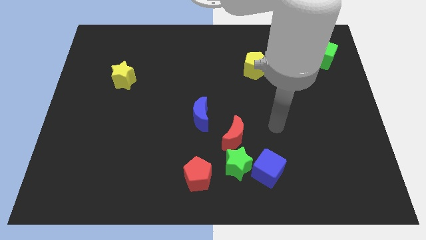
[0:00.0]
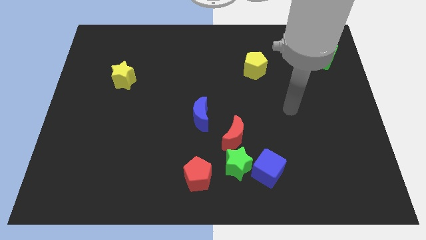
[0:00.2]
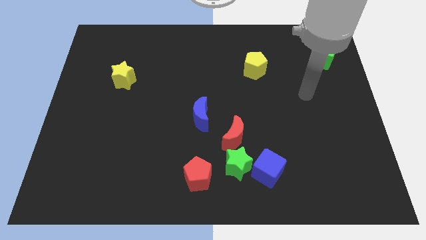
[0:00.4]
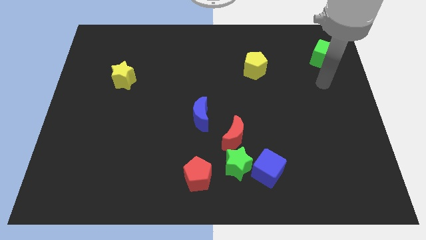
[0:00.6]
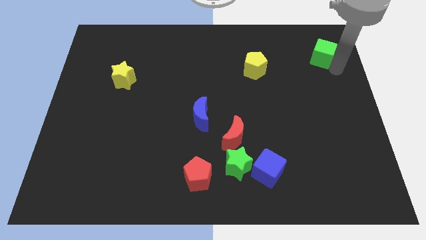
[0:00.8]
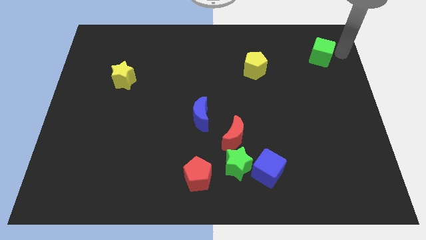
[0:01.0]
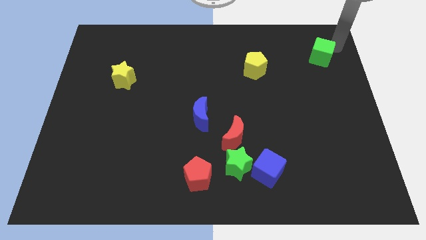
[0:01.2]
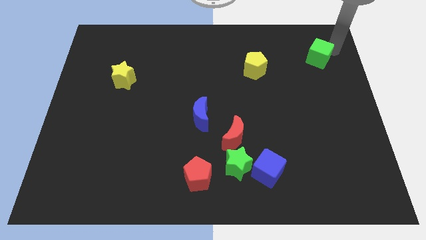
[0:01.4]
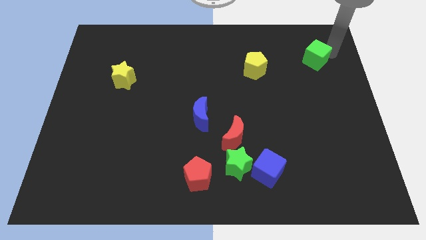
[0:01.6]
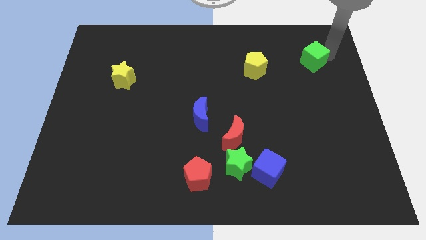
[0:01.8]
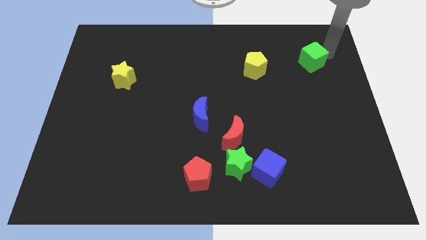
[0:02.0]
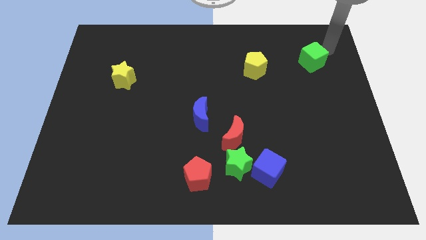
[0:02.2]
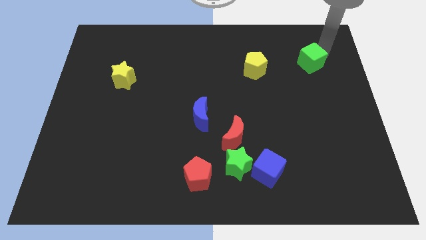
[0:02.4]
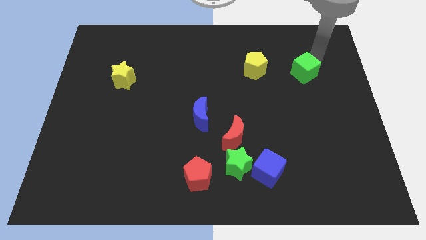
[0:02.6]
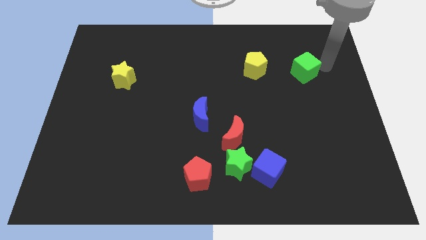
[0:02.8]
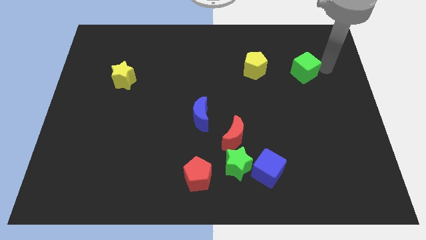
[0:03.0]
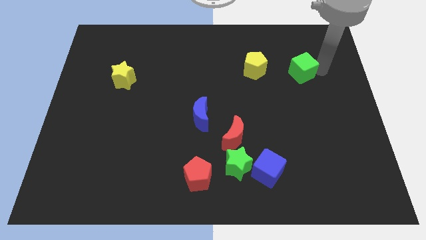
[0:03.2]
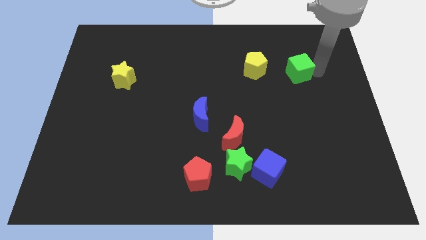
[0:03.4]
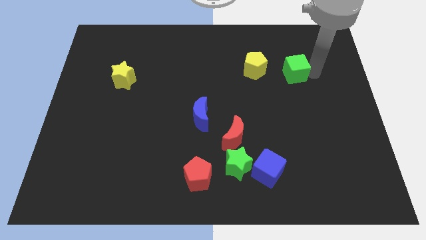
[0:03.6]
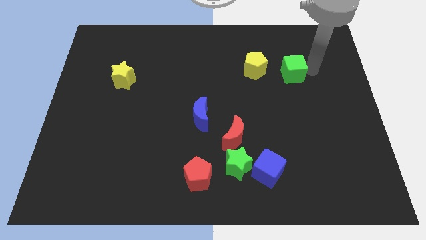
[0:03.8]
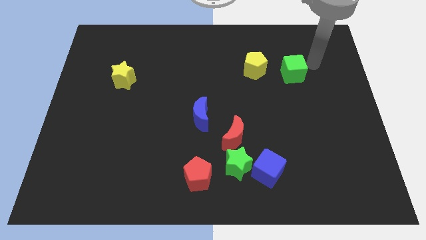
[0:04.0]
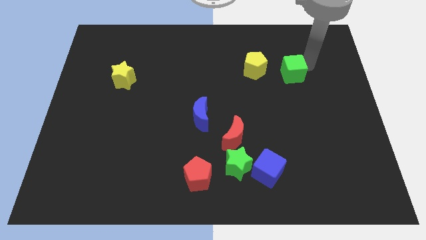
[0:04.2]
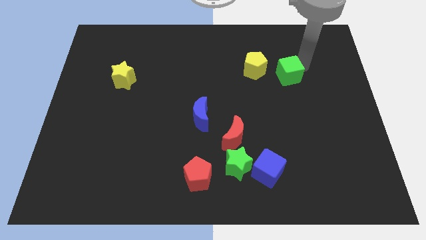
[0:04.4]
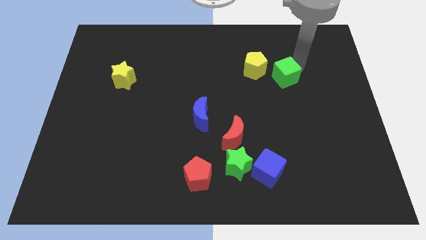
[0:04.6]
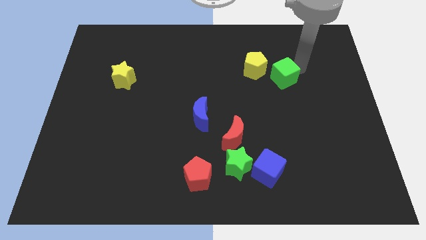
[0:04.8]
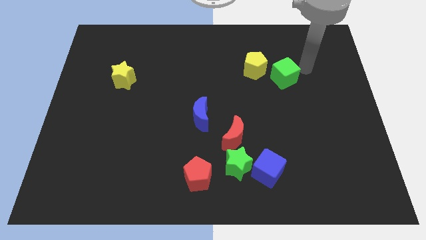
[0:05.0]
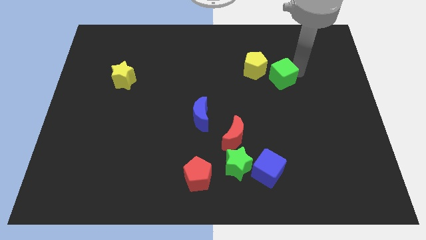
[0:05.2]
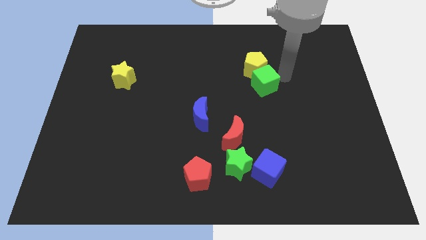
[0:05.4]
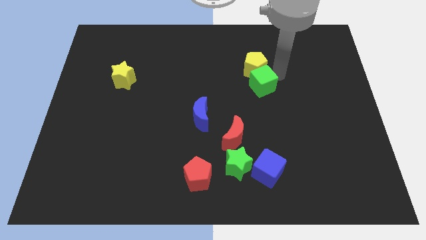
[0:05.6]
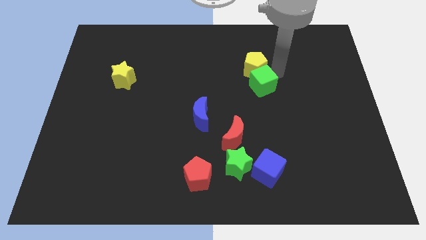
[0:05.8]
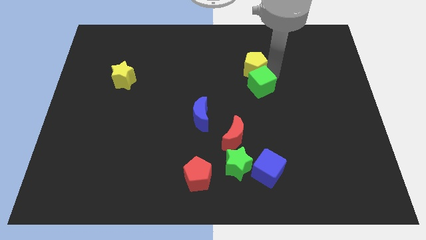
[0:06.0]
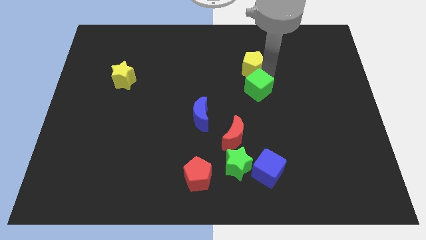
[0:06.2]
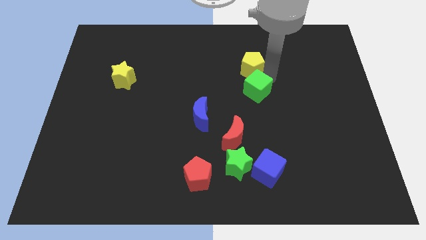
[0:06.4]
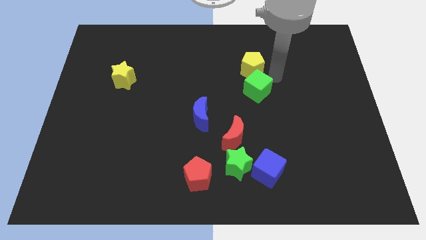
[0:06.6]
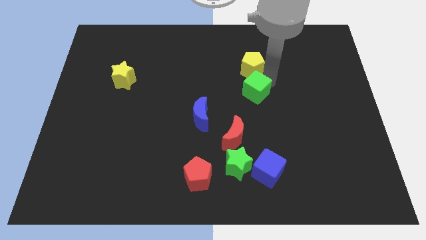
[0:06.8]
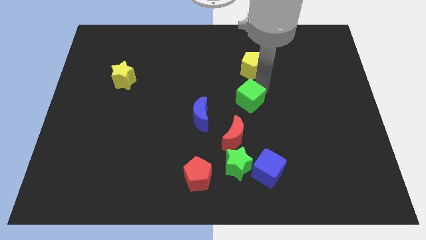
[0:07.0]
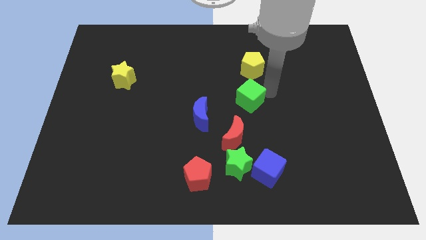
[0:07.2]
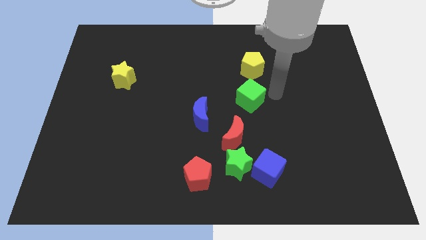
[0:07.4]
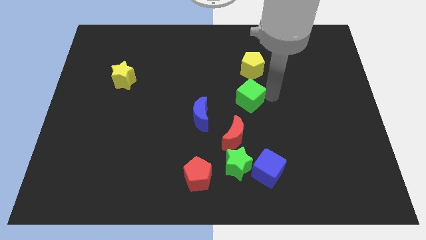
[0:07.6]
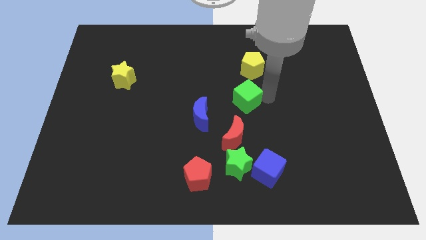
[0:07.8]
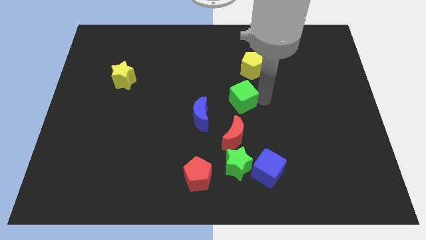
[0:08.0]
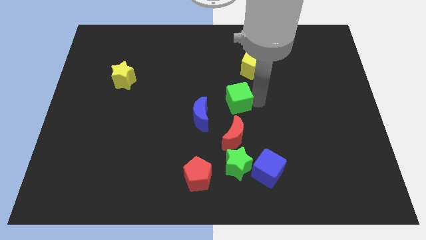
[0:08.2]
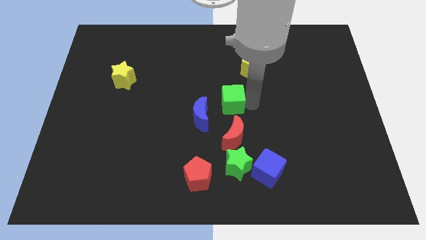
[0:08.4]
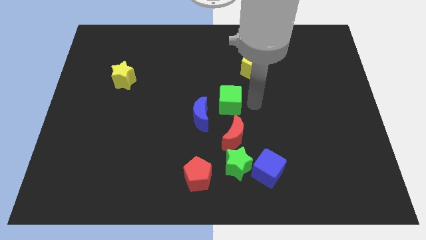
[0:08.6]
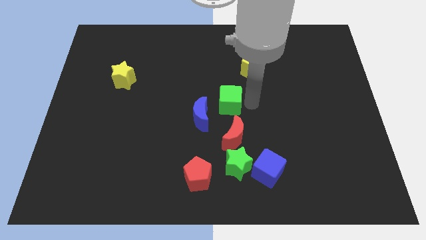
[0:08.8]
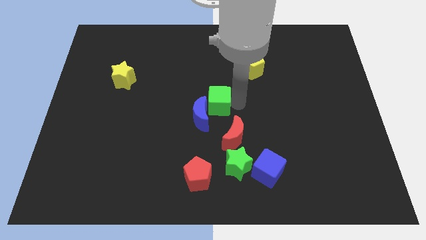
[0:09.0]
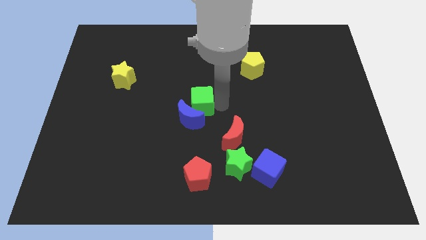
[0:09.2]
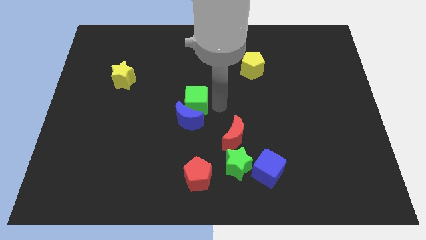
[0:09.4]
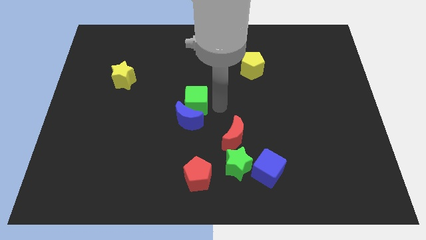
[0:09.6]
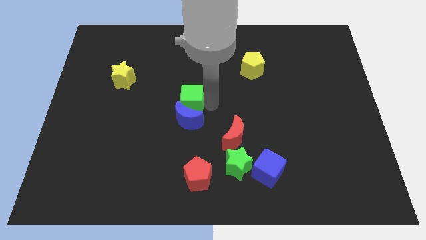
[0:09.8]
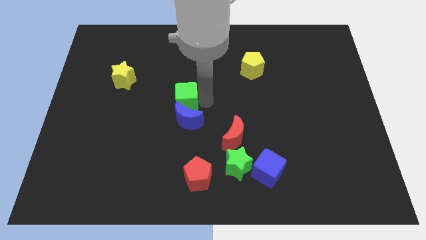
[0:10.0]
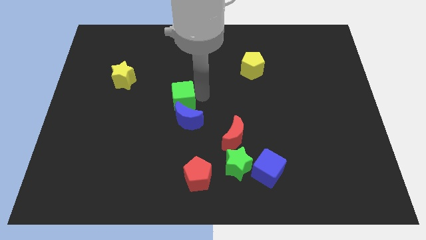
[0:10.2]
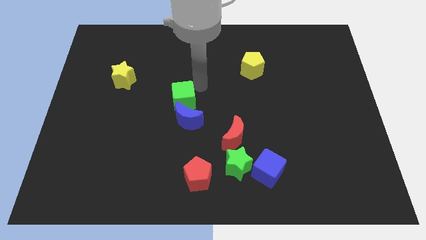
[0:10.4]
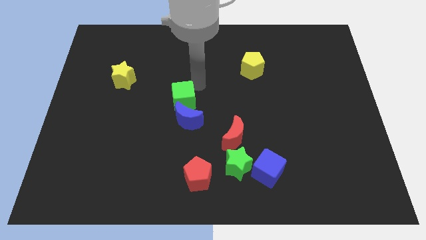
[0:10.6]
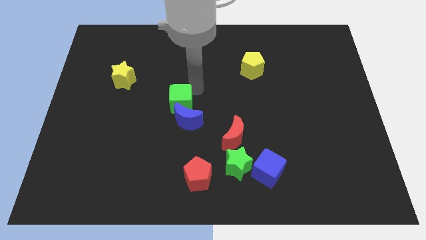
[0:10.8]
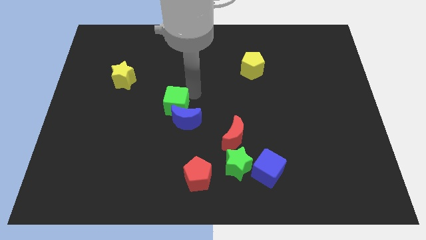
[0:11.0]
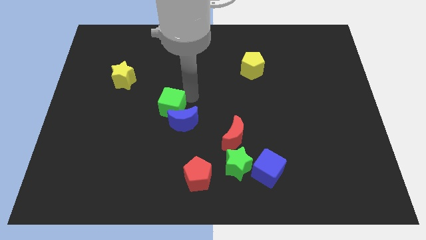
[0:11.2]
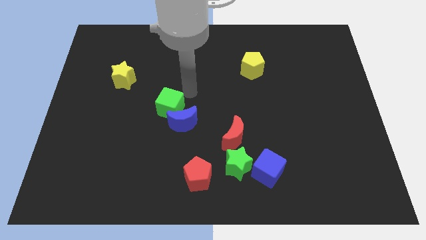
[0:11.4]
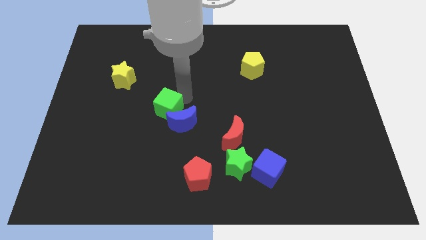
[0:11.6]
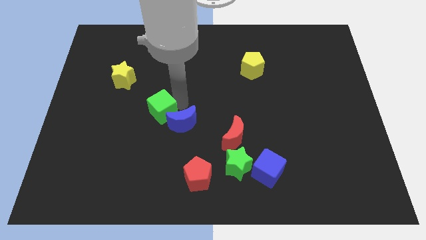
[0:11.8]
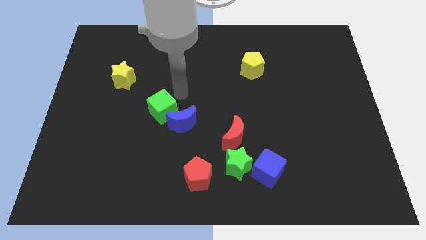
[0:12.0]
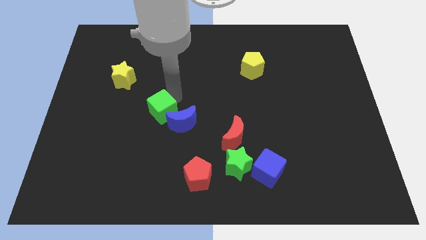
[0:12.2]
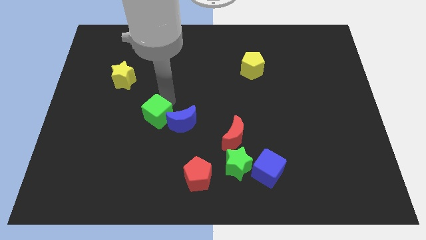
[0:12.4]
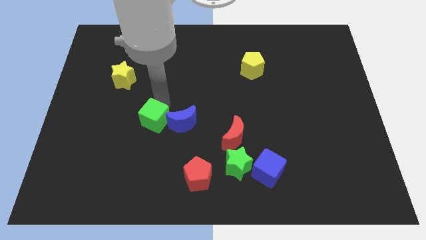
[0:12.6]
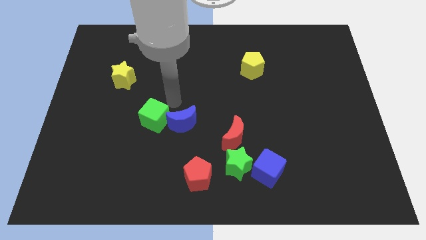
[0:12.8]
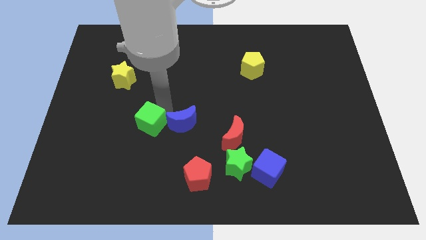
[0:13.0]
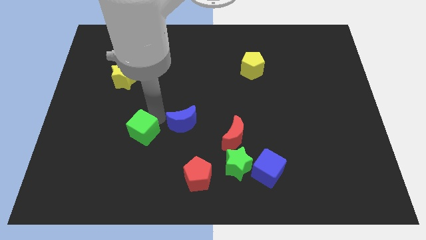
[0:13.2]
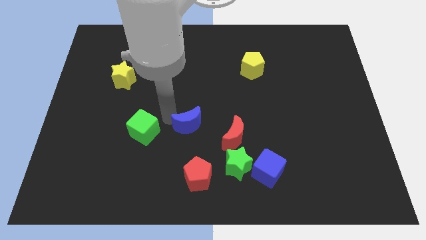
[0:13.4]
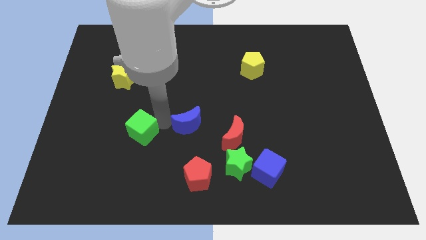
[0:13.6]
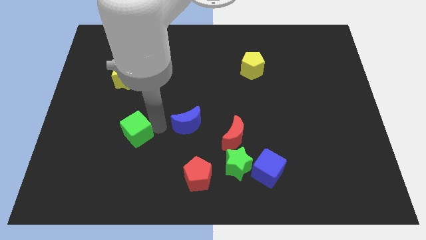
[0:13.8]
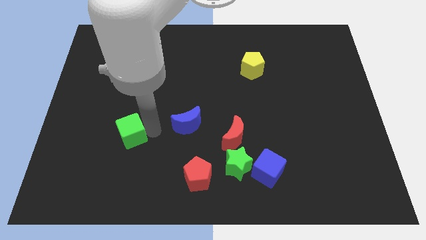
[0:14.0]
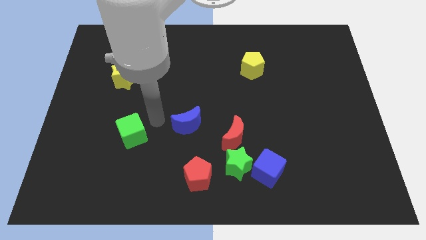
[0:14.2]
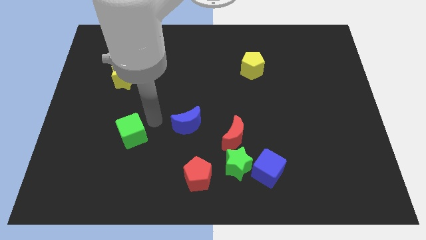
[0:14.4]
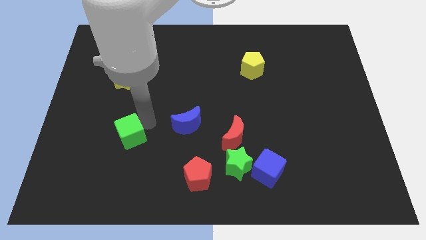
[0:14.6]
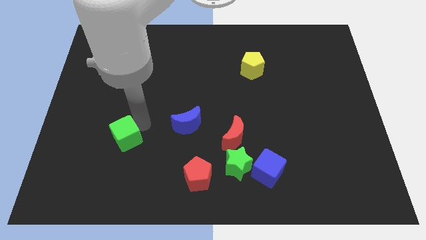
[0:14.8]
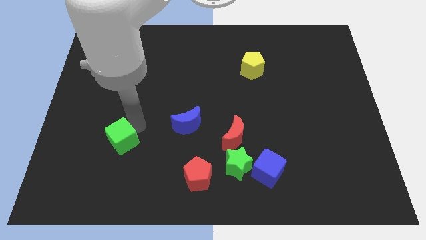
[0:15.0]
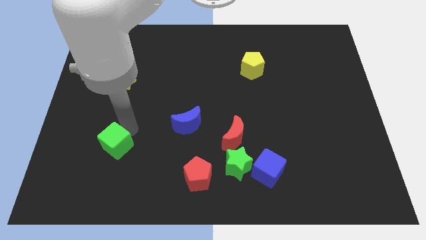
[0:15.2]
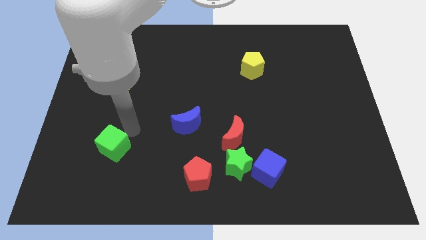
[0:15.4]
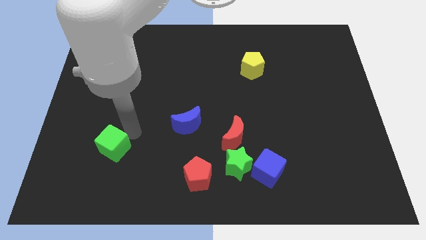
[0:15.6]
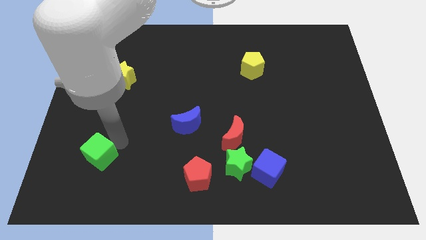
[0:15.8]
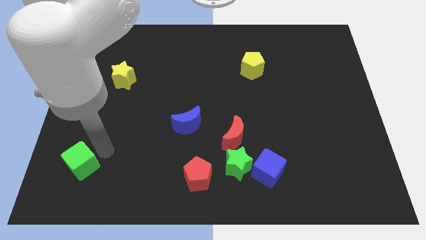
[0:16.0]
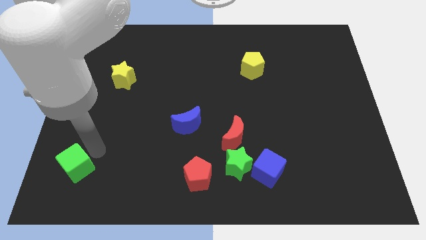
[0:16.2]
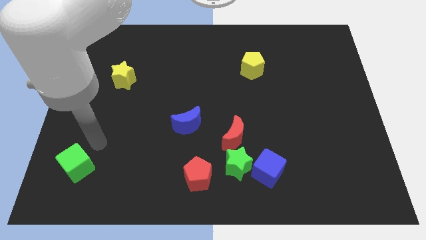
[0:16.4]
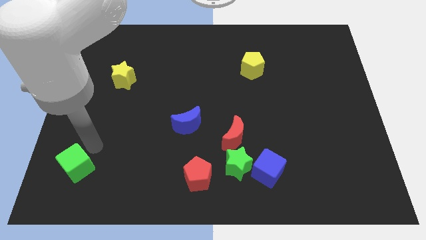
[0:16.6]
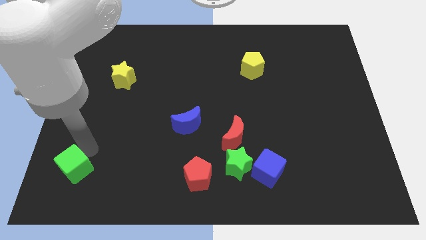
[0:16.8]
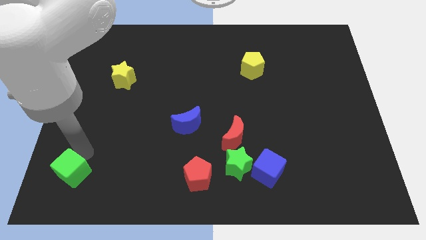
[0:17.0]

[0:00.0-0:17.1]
put the green cube to the bottom left of the board
